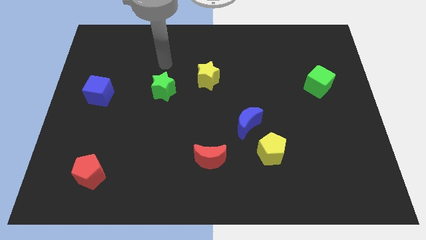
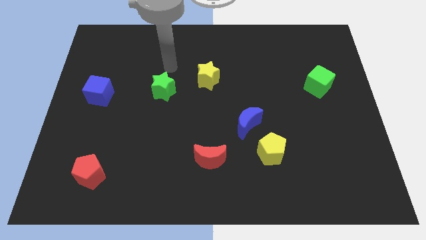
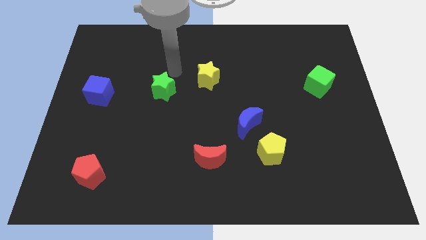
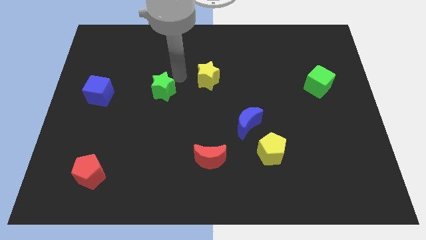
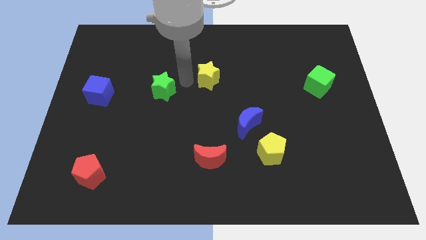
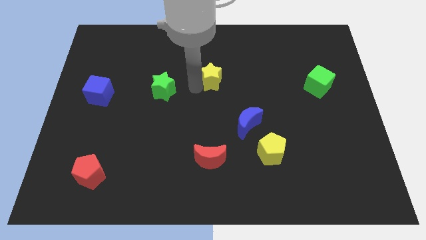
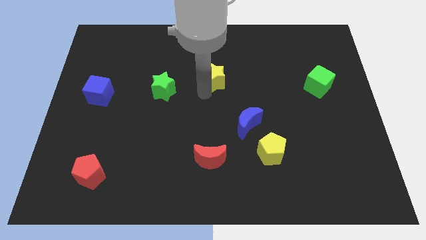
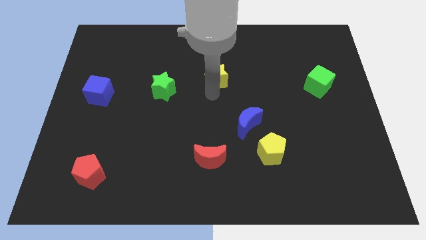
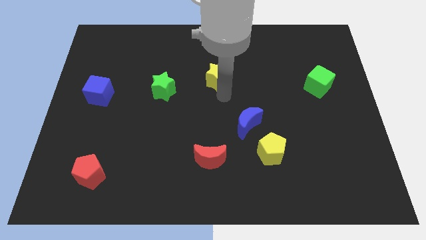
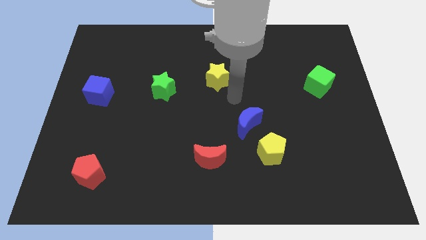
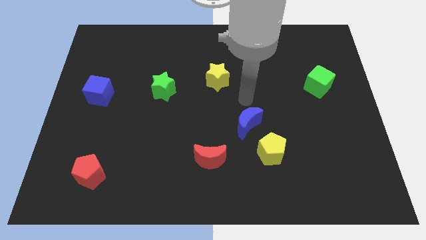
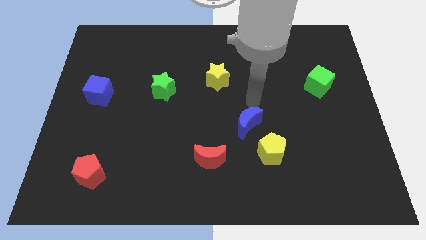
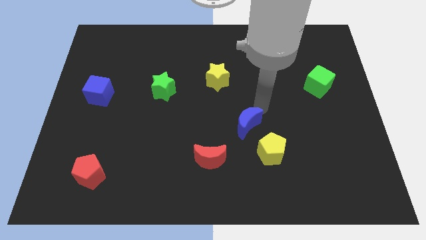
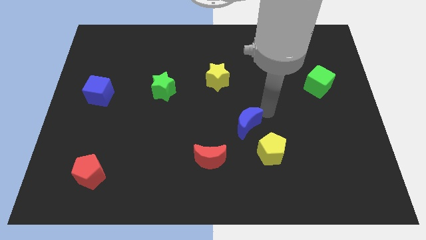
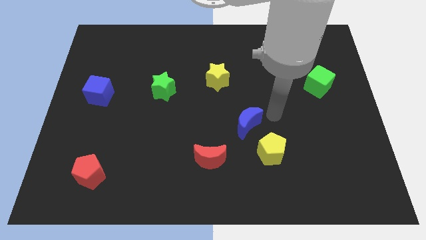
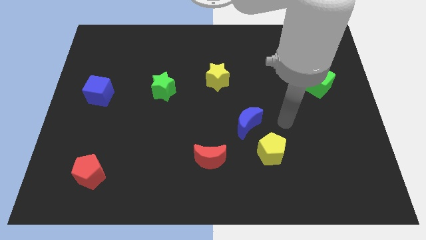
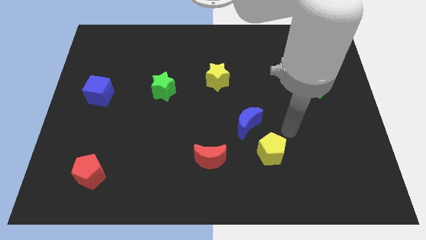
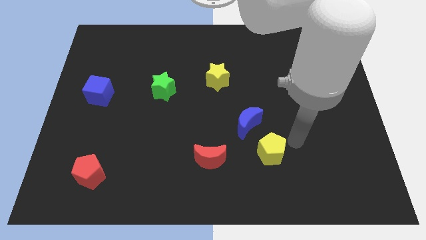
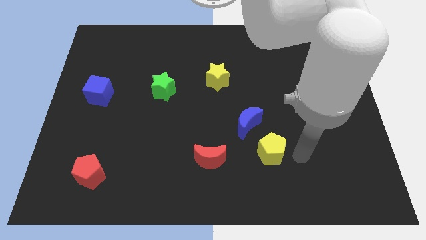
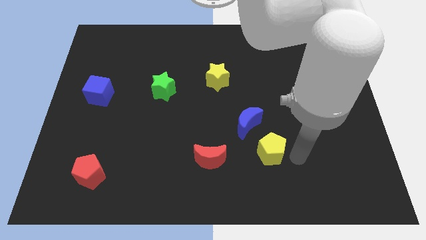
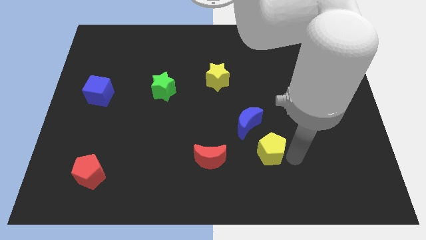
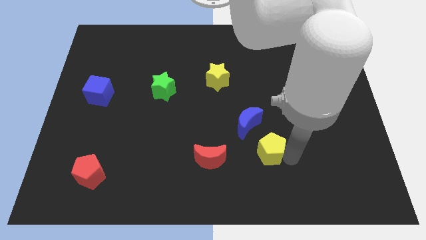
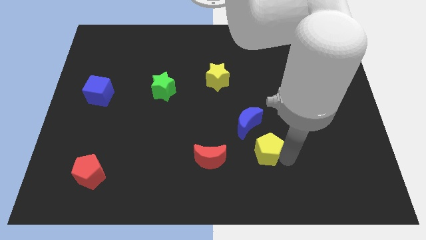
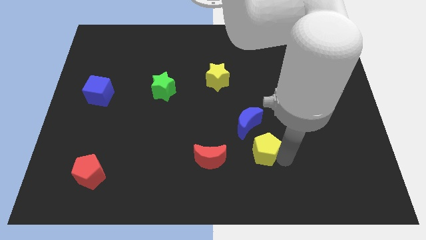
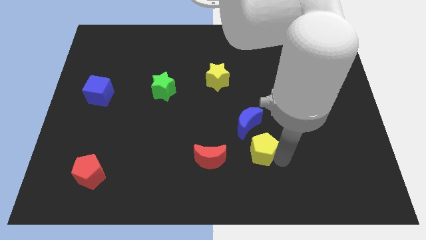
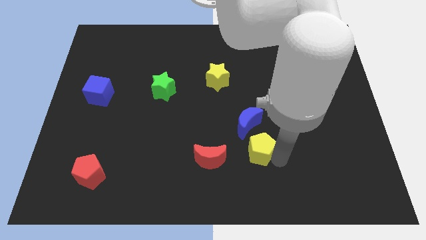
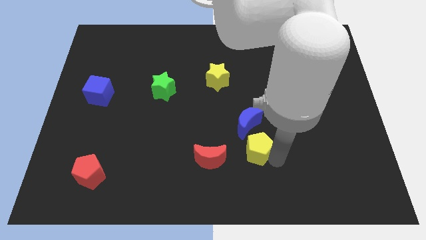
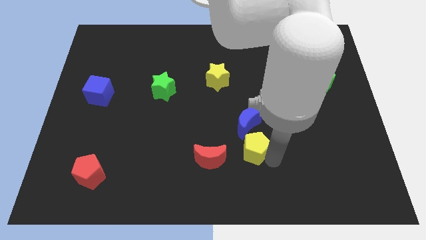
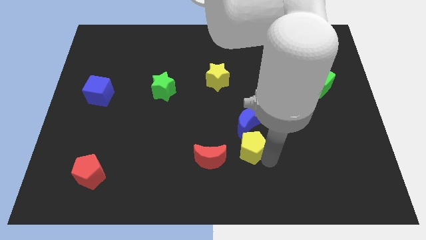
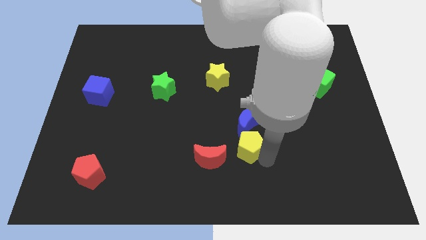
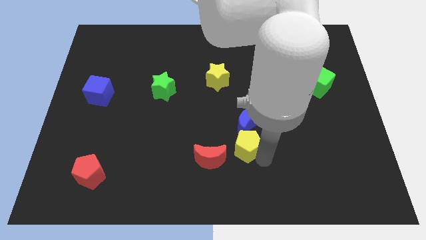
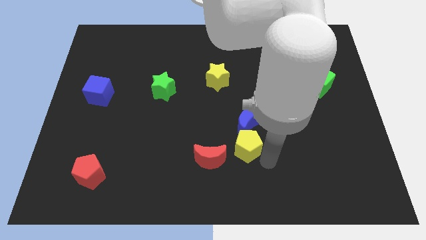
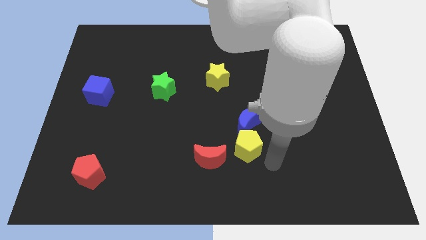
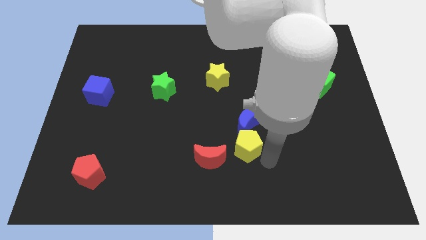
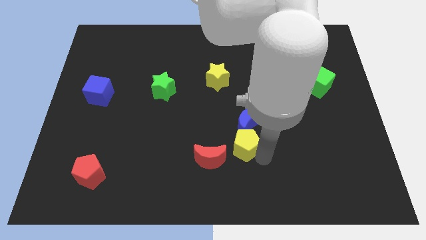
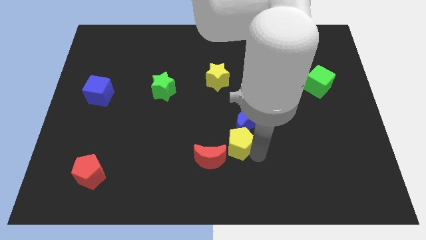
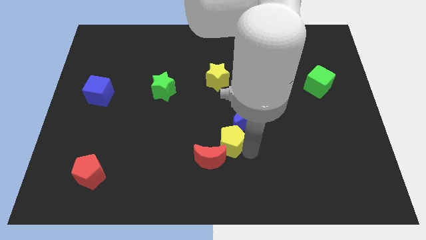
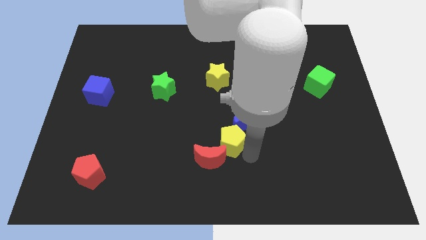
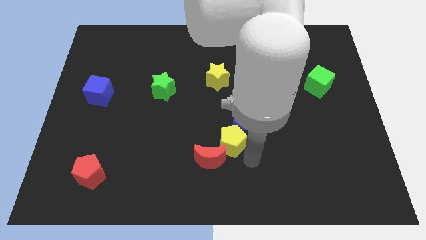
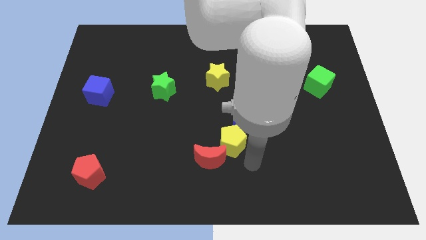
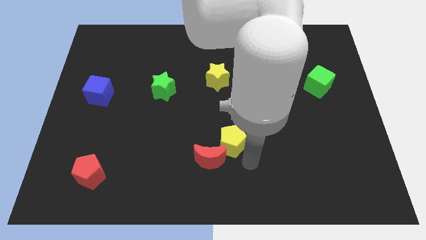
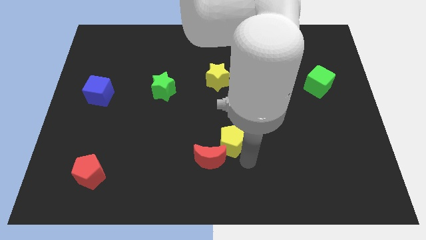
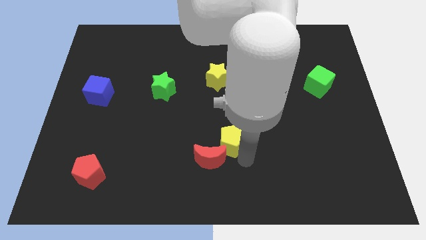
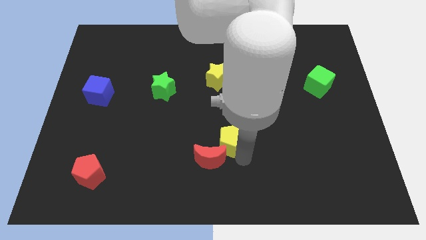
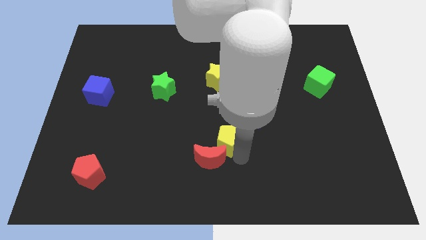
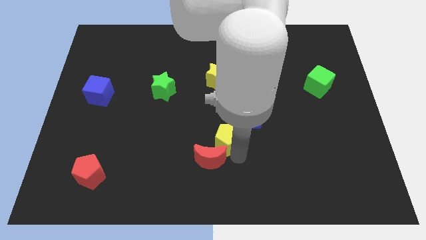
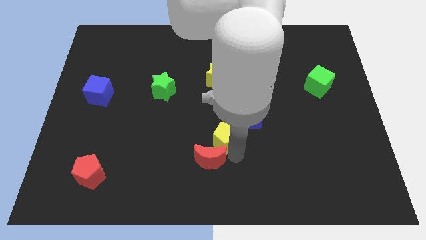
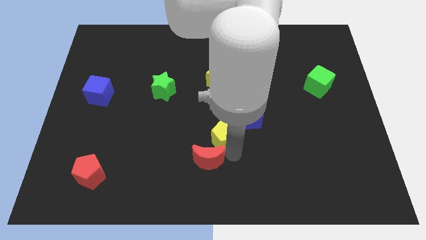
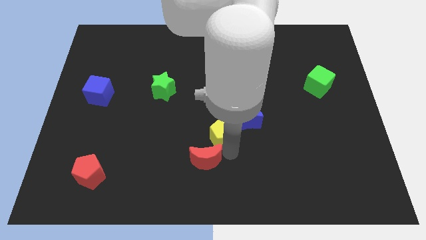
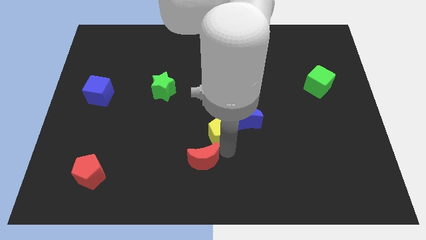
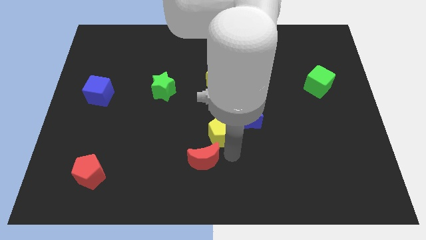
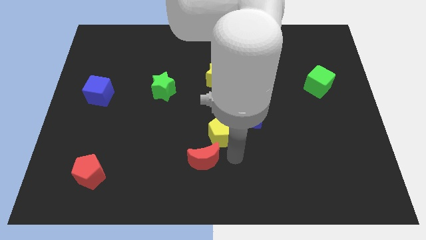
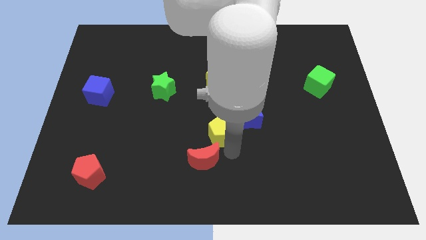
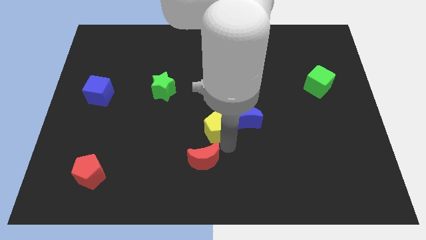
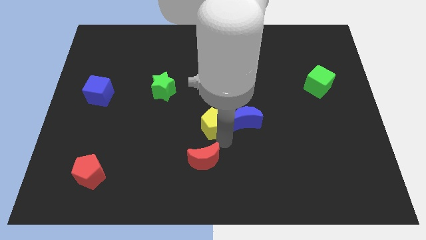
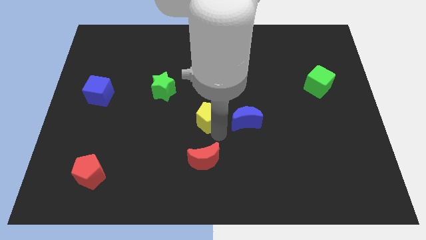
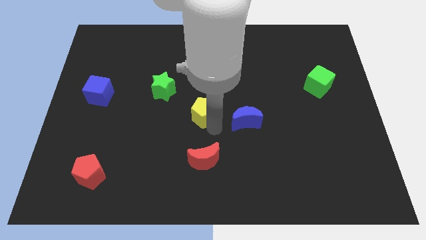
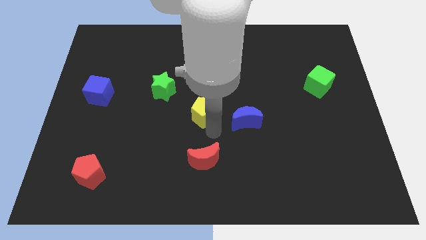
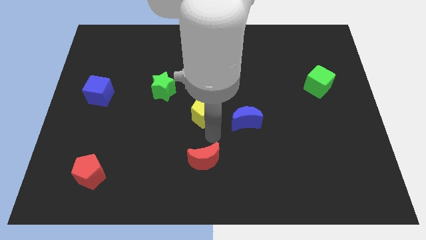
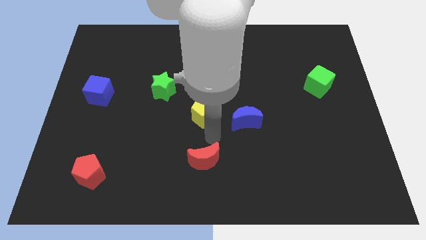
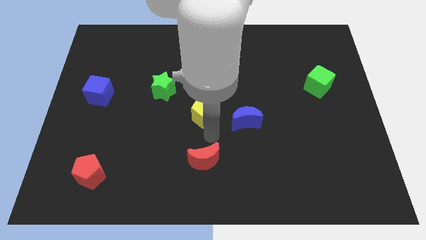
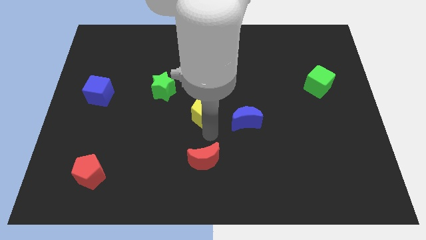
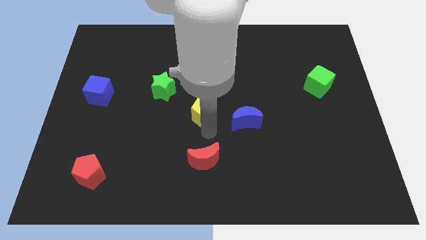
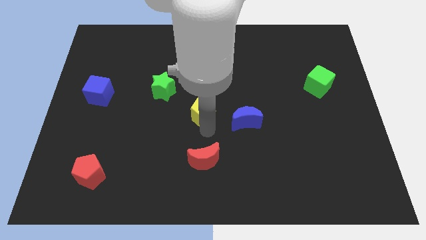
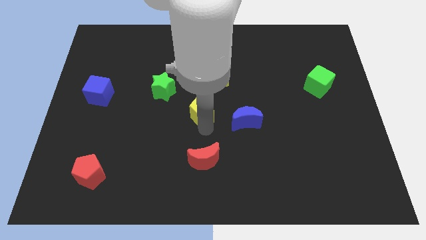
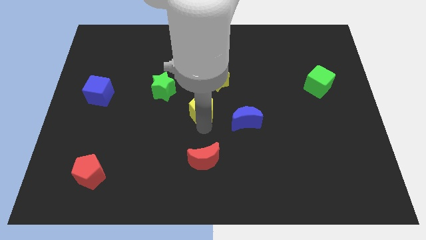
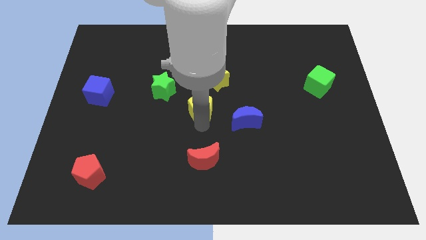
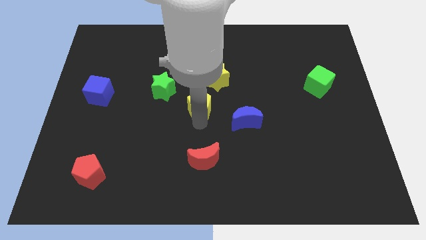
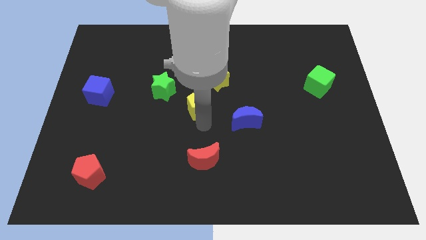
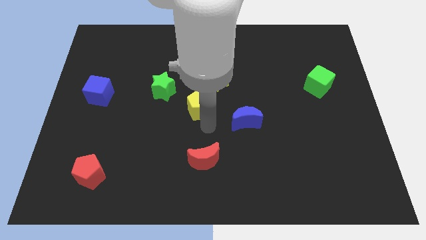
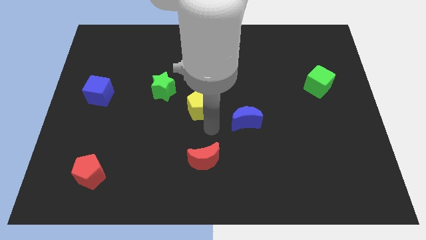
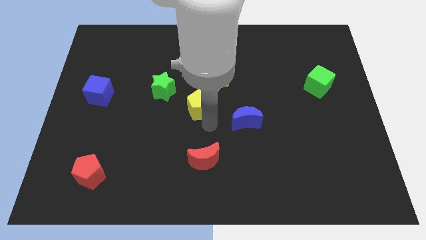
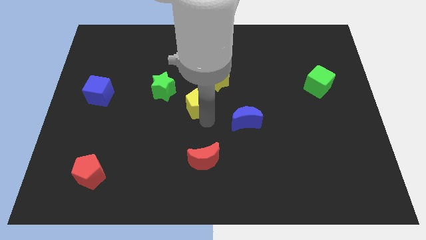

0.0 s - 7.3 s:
move the yellow pentagon up and to the left diagonally

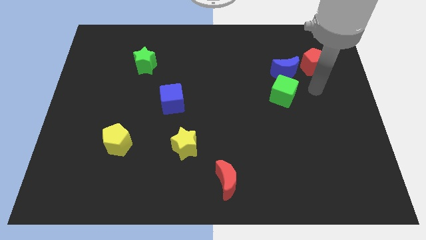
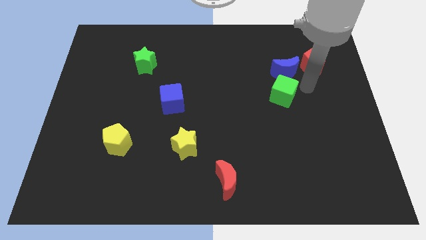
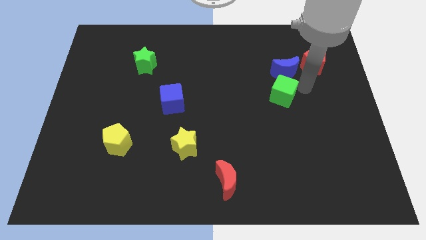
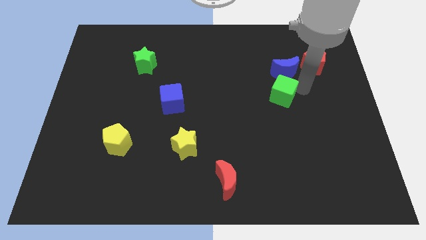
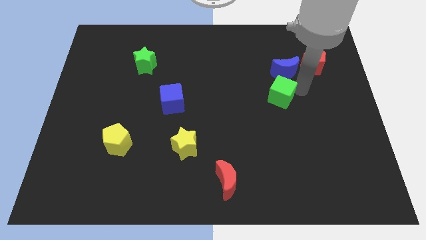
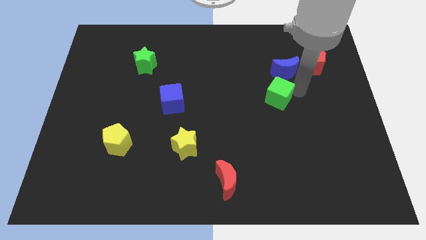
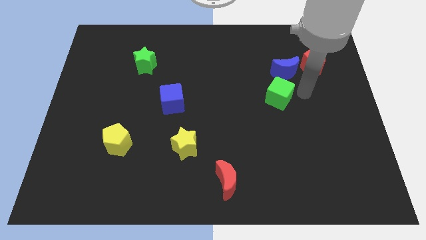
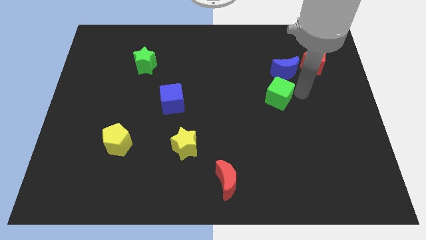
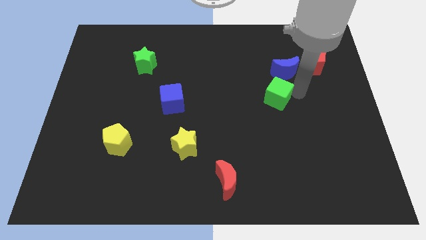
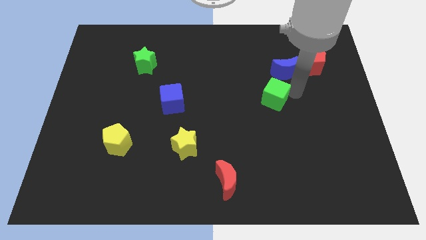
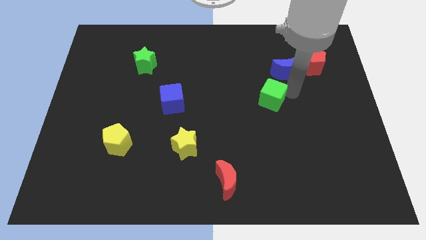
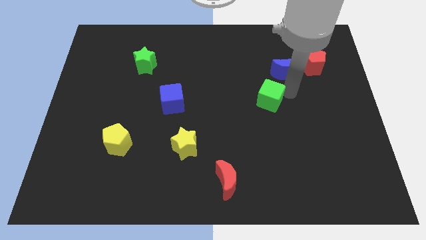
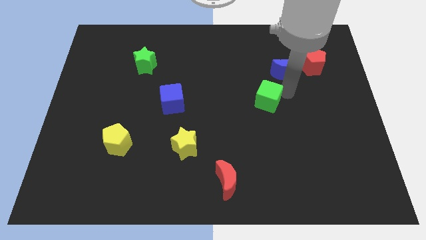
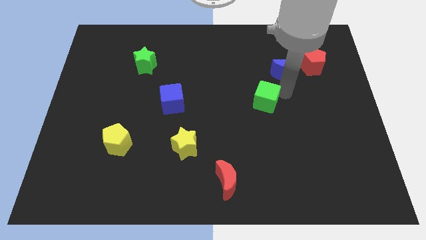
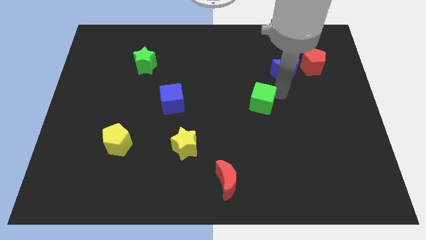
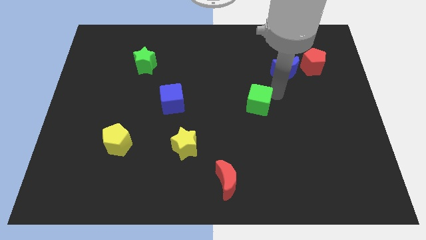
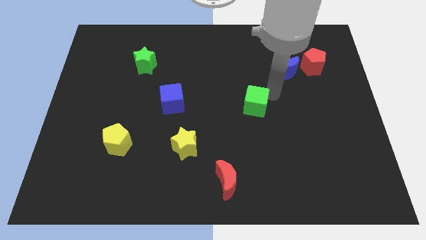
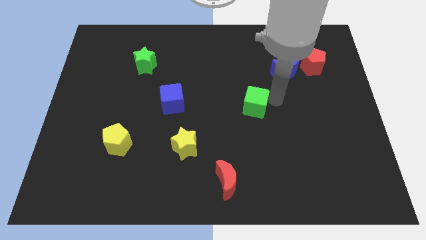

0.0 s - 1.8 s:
slide the green cube left a bit
